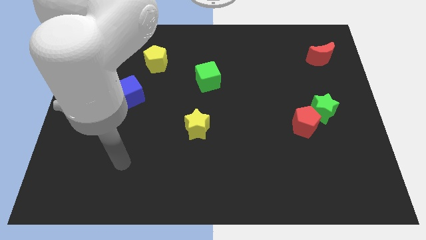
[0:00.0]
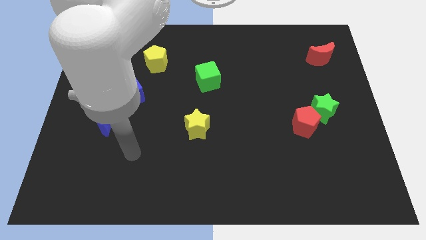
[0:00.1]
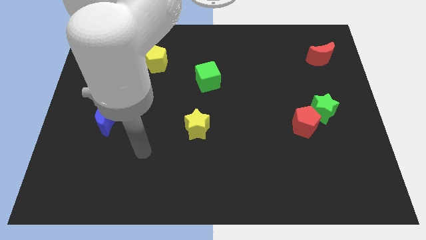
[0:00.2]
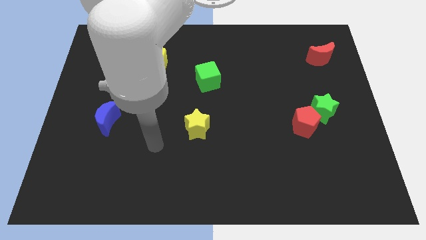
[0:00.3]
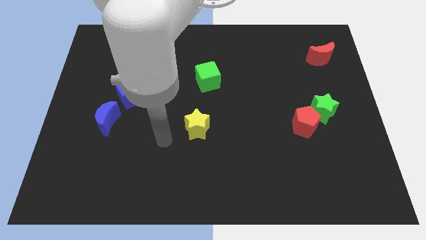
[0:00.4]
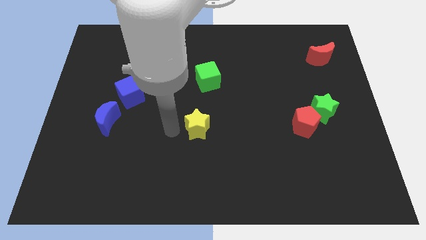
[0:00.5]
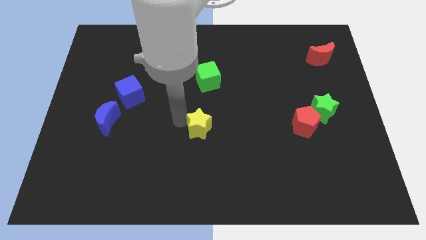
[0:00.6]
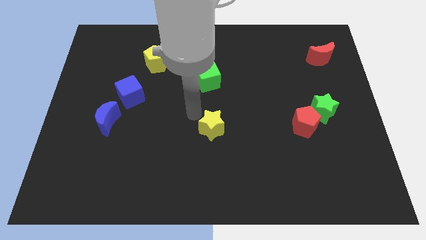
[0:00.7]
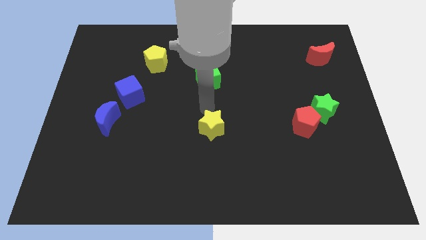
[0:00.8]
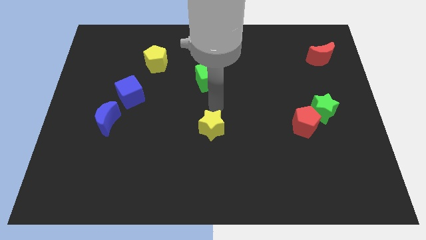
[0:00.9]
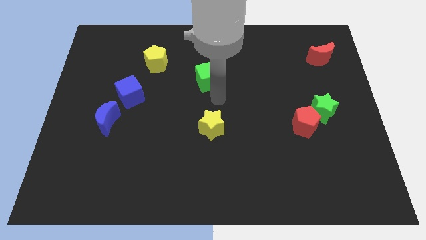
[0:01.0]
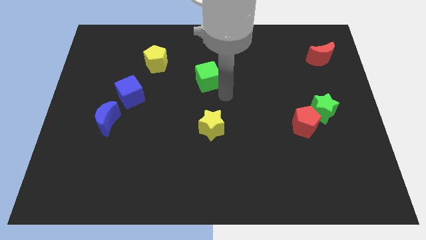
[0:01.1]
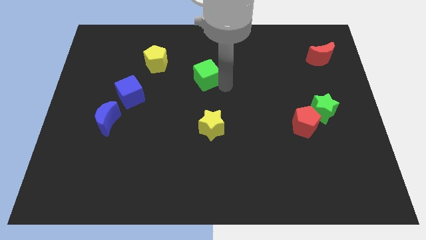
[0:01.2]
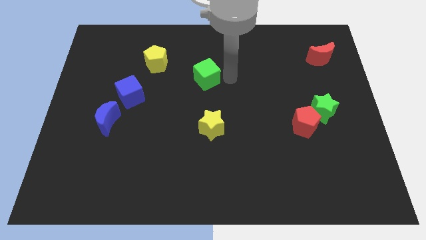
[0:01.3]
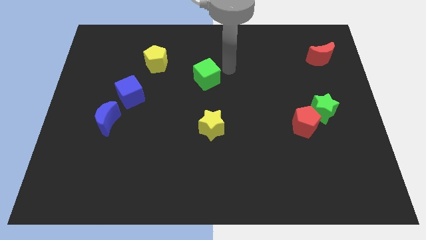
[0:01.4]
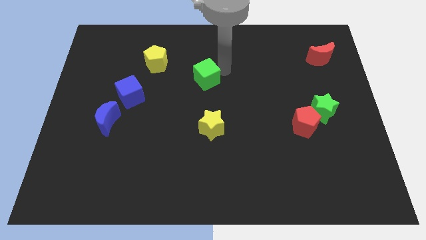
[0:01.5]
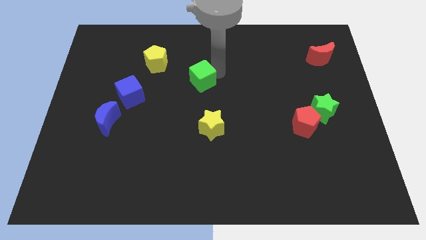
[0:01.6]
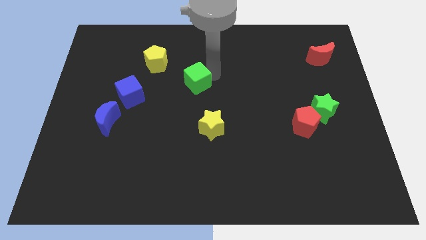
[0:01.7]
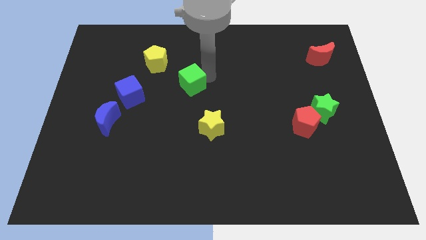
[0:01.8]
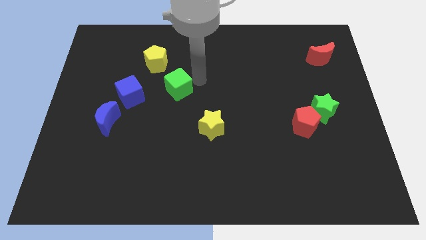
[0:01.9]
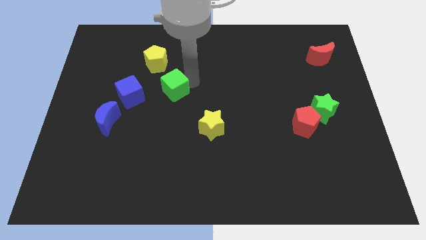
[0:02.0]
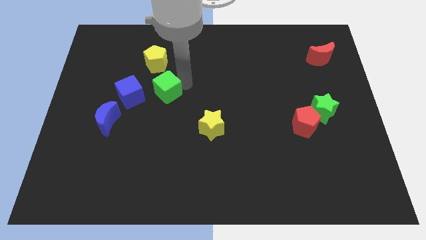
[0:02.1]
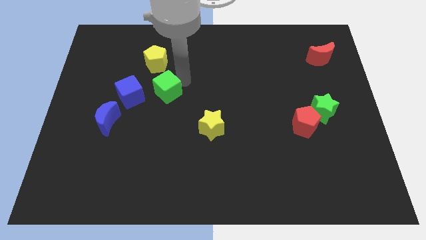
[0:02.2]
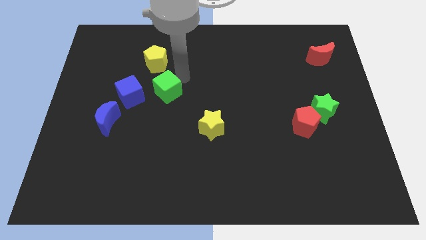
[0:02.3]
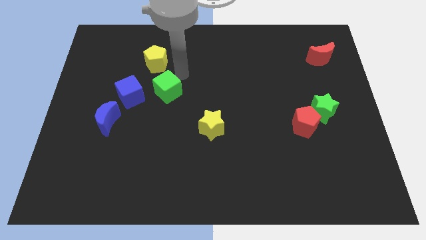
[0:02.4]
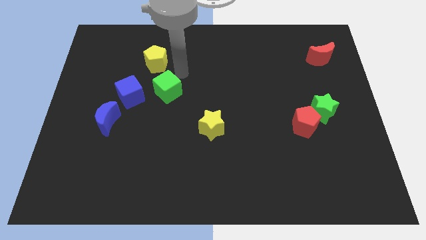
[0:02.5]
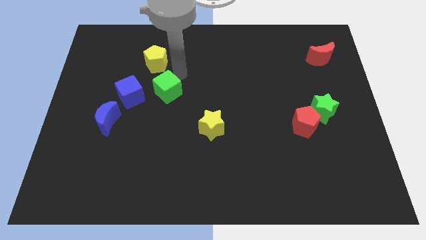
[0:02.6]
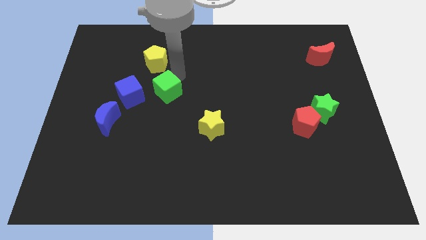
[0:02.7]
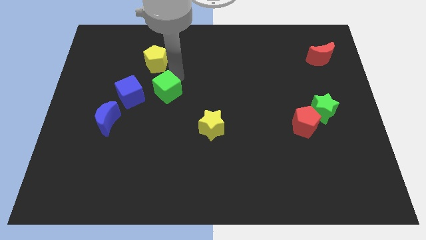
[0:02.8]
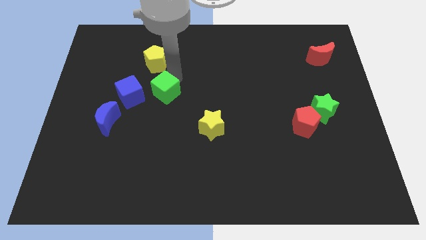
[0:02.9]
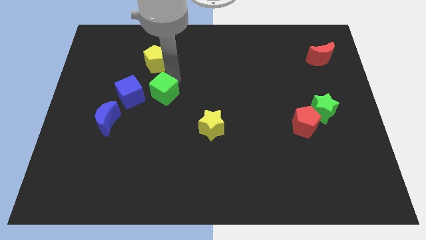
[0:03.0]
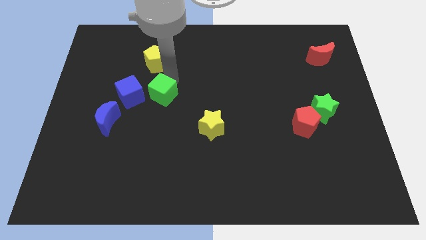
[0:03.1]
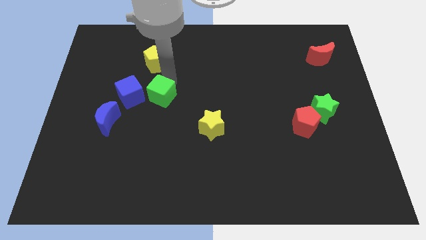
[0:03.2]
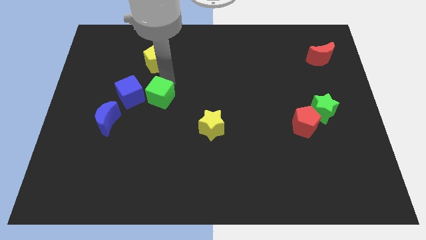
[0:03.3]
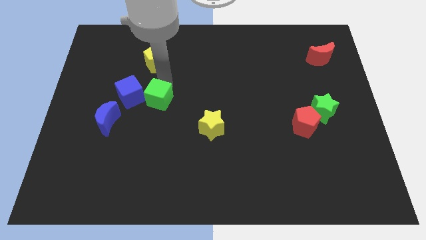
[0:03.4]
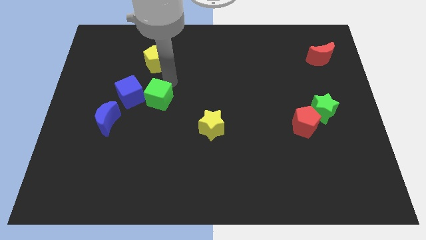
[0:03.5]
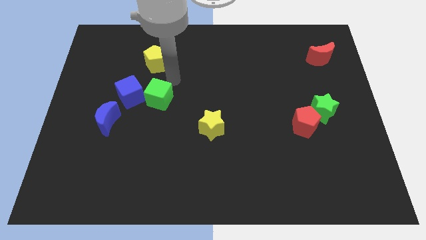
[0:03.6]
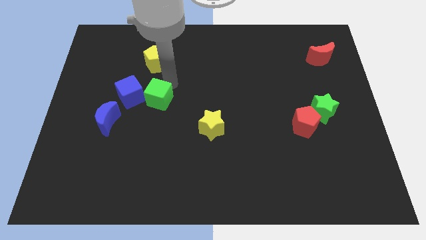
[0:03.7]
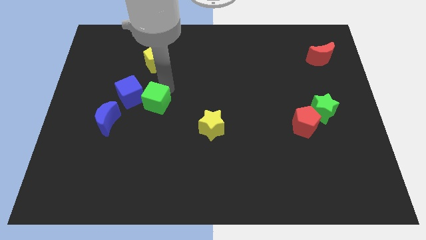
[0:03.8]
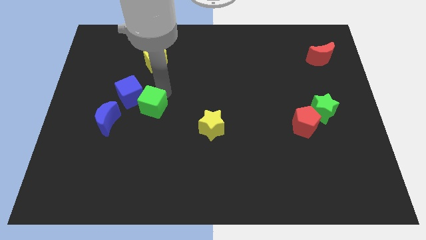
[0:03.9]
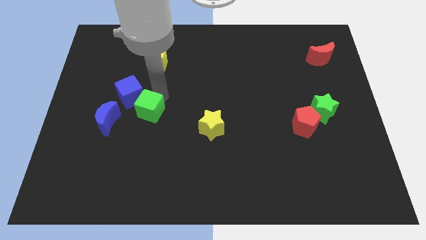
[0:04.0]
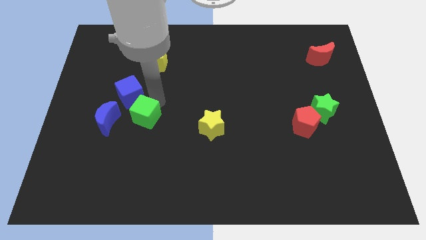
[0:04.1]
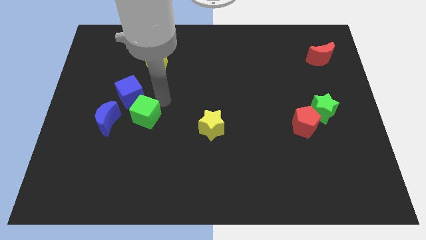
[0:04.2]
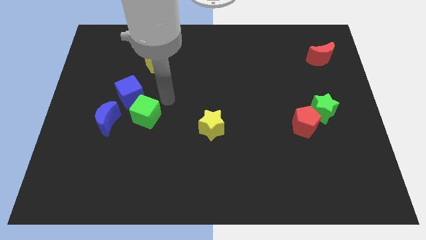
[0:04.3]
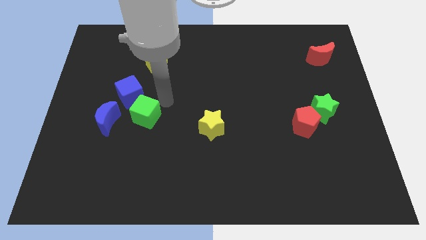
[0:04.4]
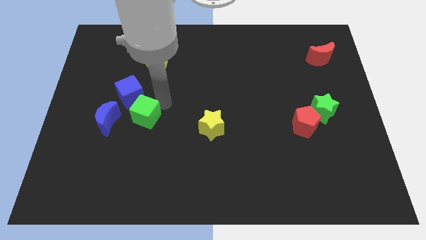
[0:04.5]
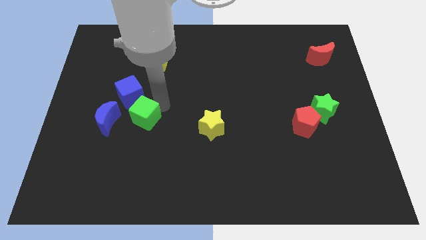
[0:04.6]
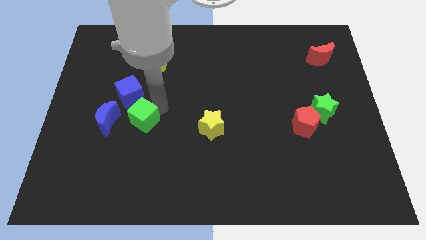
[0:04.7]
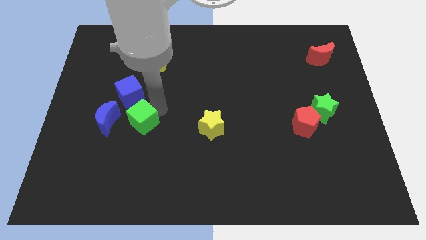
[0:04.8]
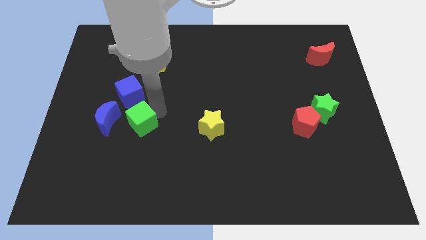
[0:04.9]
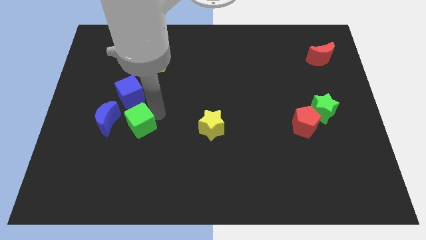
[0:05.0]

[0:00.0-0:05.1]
push the green cube downwards and to the left

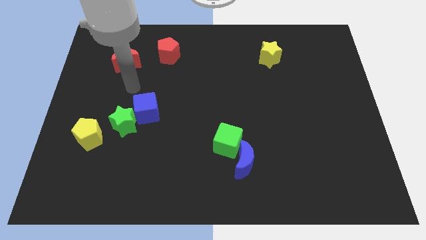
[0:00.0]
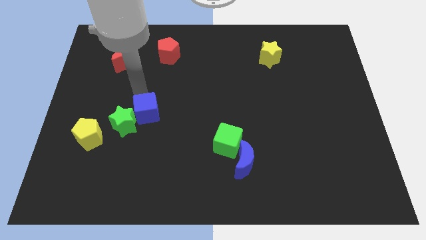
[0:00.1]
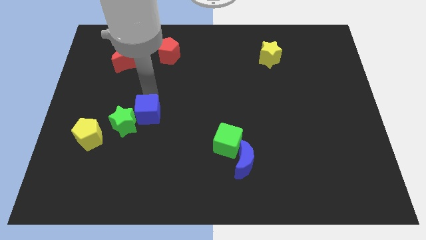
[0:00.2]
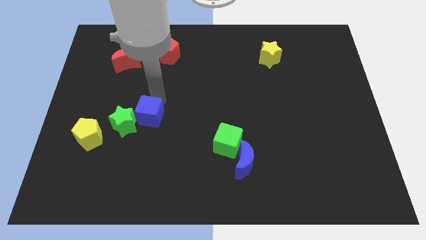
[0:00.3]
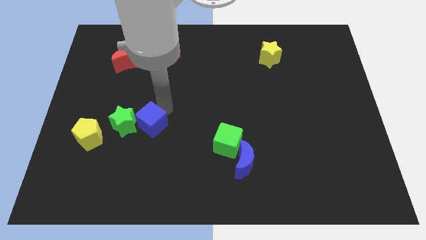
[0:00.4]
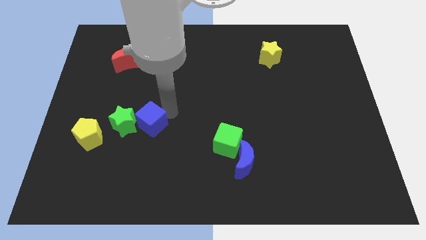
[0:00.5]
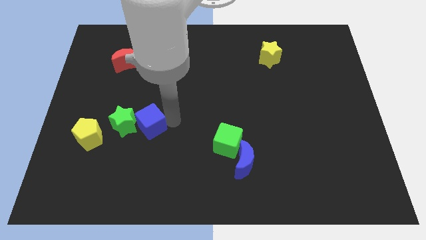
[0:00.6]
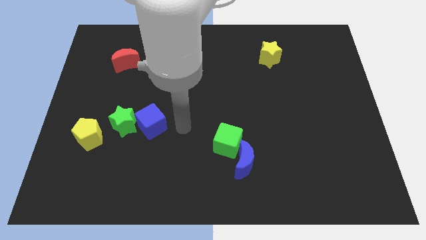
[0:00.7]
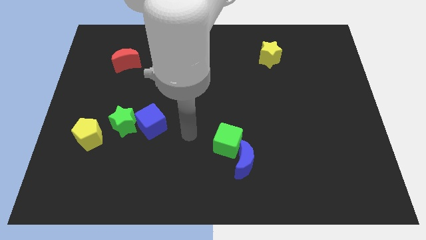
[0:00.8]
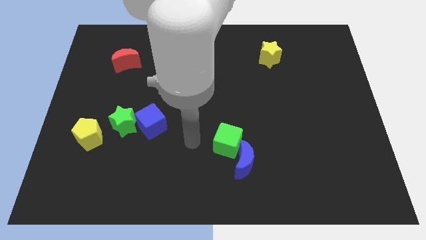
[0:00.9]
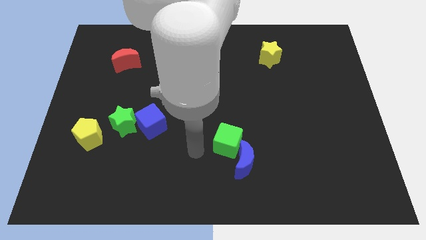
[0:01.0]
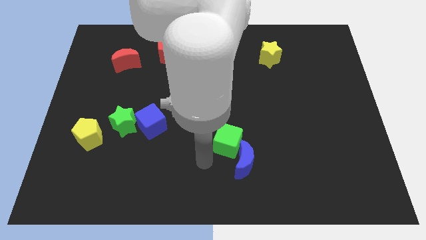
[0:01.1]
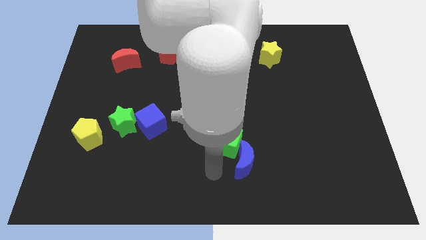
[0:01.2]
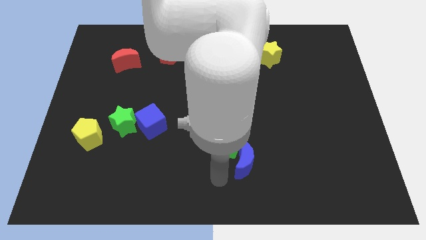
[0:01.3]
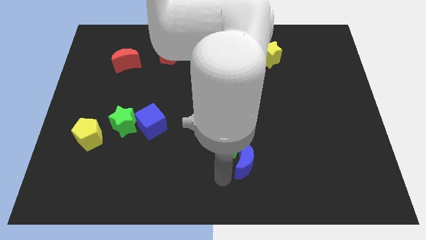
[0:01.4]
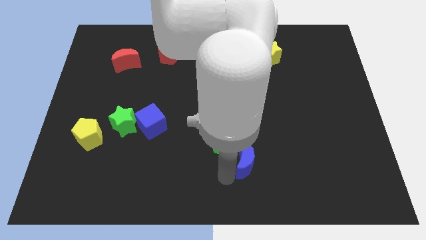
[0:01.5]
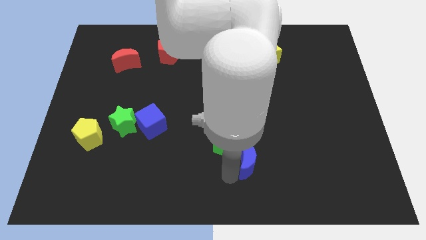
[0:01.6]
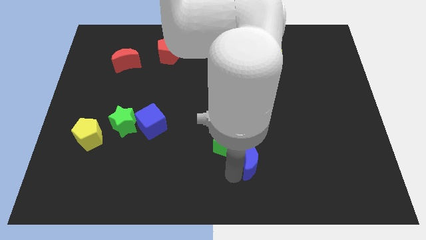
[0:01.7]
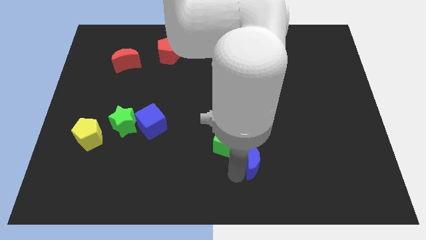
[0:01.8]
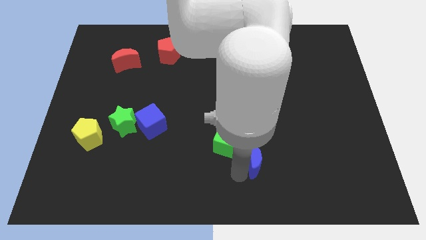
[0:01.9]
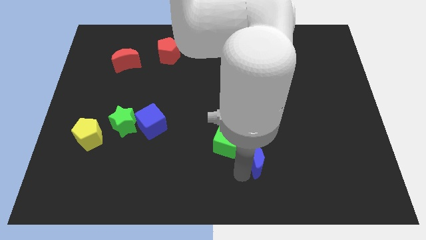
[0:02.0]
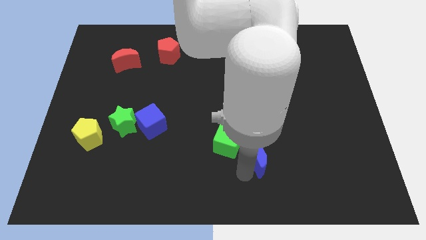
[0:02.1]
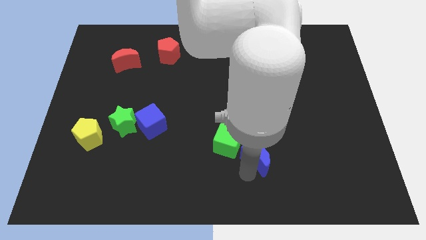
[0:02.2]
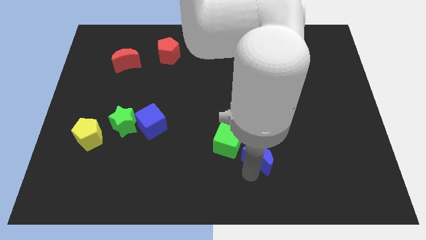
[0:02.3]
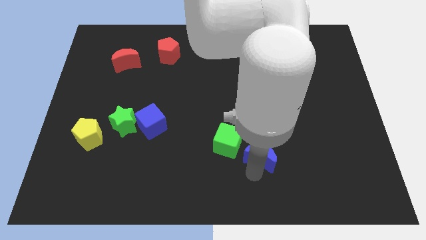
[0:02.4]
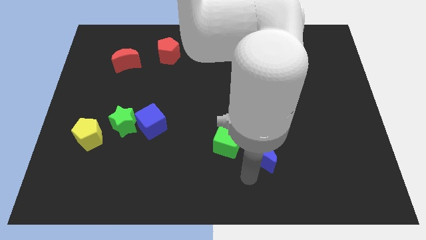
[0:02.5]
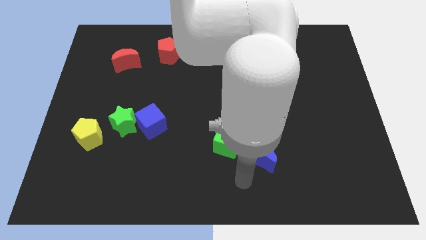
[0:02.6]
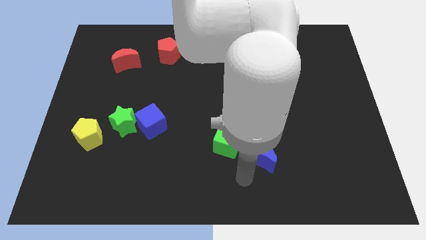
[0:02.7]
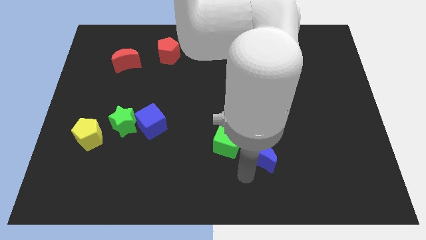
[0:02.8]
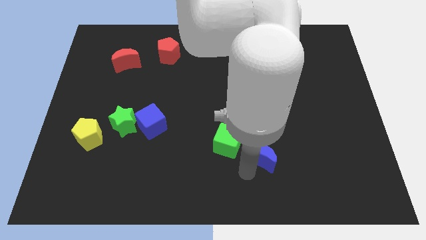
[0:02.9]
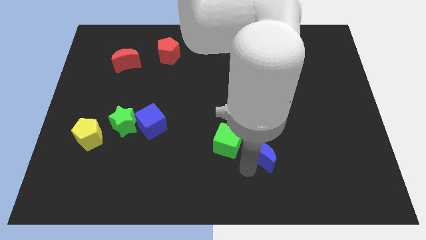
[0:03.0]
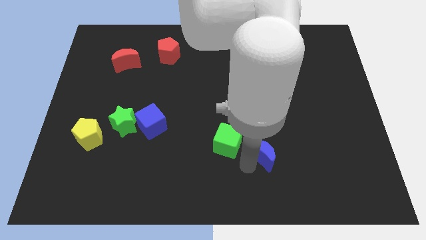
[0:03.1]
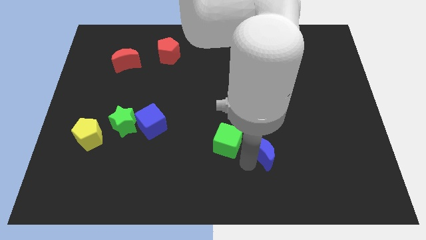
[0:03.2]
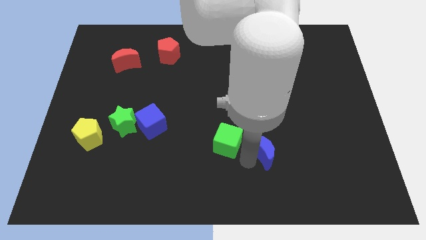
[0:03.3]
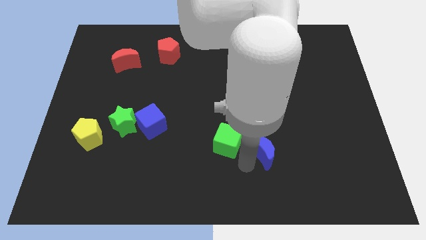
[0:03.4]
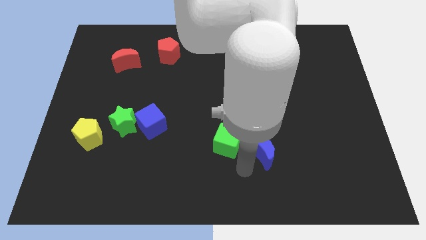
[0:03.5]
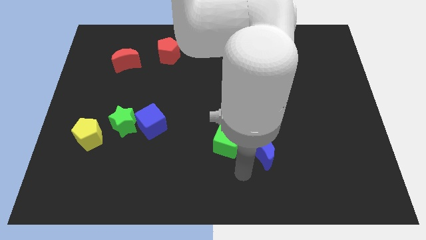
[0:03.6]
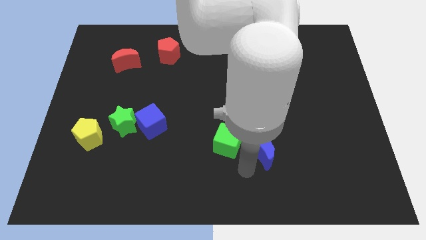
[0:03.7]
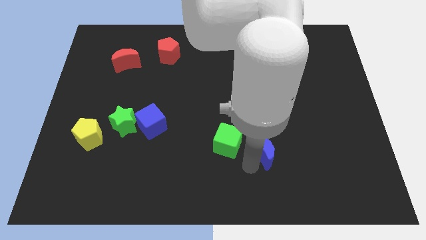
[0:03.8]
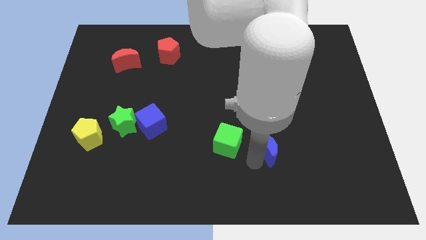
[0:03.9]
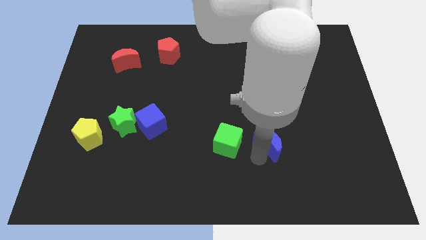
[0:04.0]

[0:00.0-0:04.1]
slightly slide the blue moon upwards and then right
